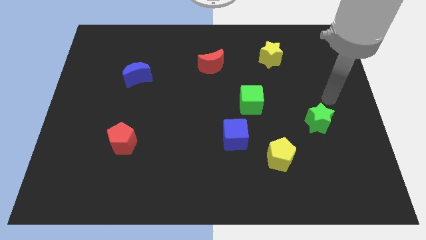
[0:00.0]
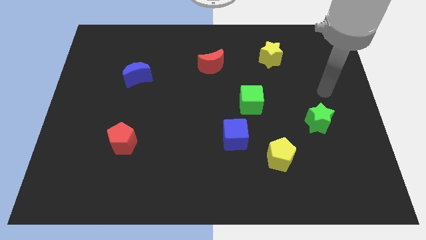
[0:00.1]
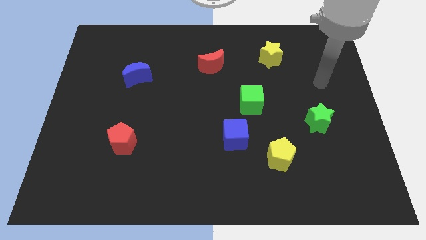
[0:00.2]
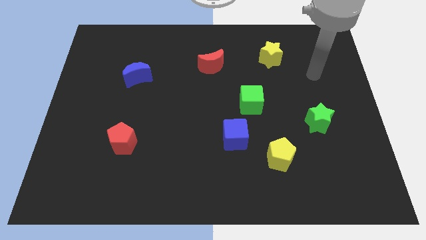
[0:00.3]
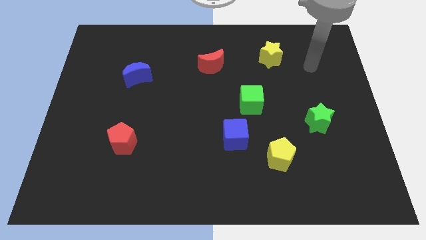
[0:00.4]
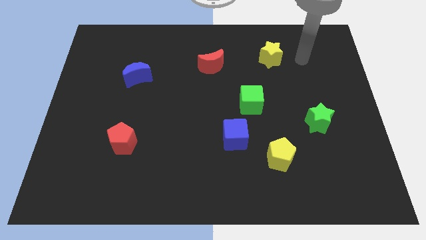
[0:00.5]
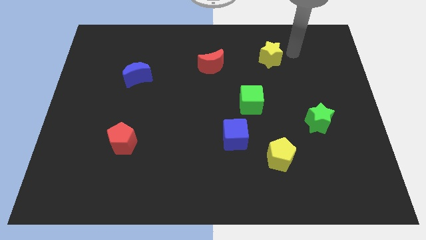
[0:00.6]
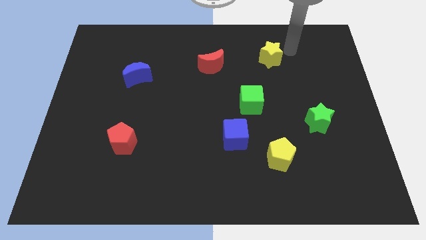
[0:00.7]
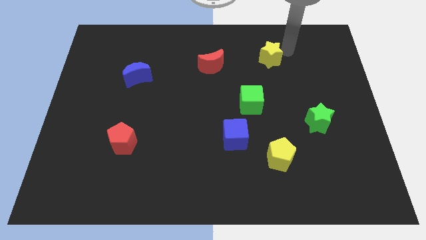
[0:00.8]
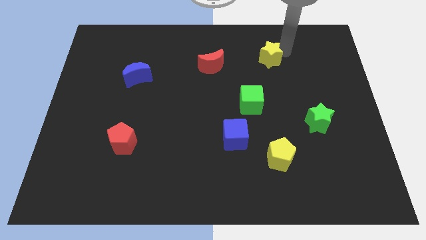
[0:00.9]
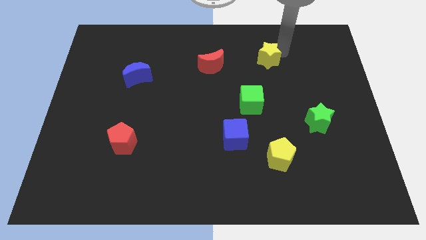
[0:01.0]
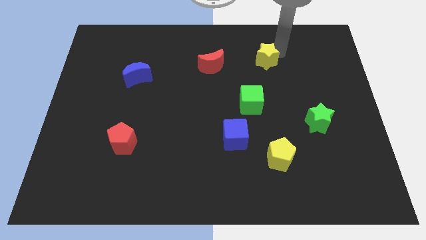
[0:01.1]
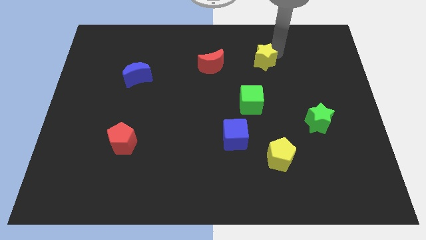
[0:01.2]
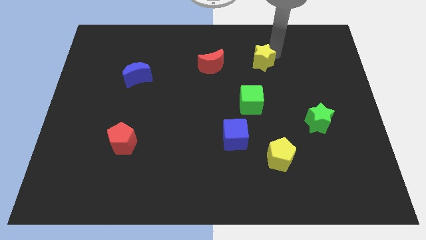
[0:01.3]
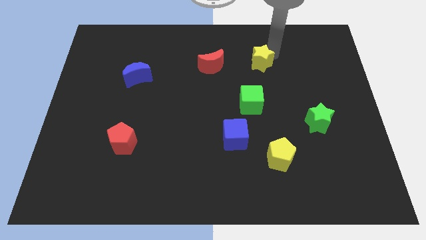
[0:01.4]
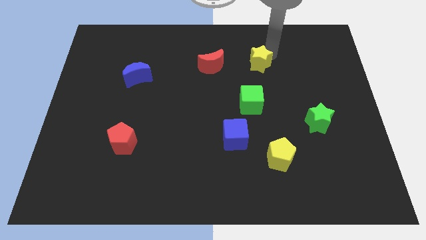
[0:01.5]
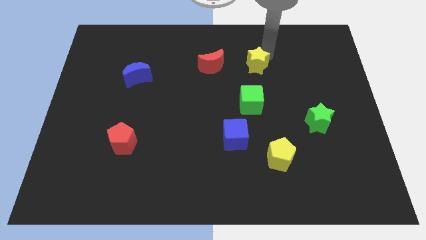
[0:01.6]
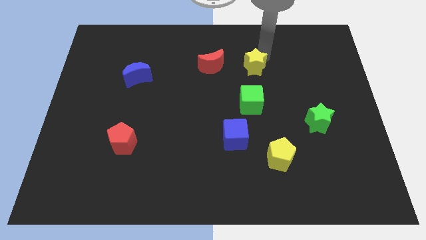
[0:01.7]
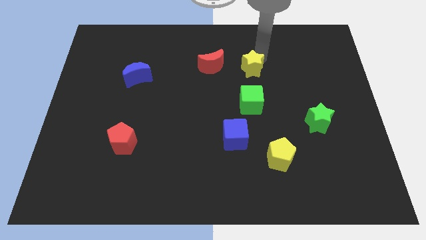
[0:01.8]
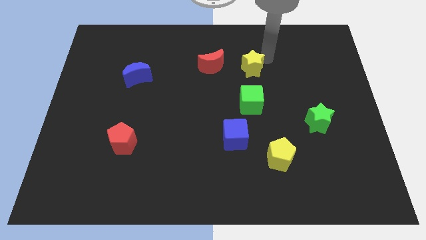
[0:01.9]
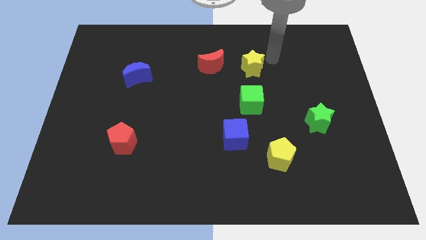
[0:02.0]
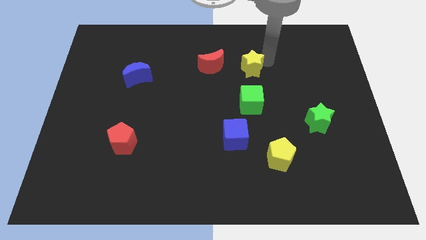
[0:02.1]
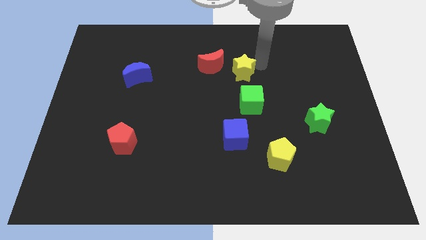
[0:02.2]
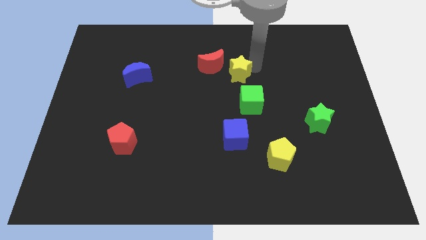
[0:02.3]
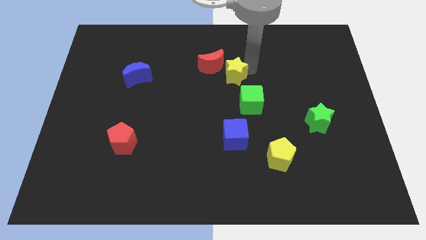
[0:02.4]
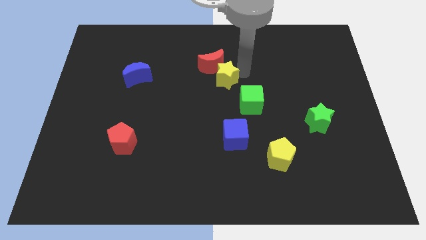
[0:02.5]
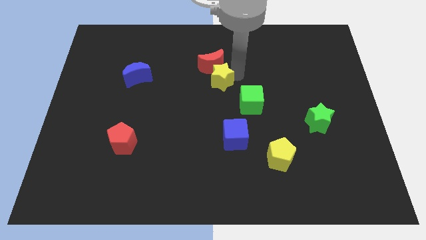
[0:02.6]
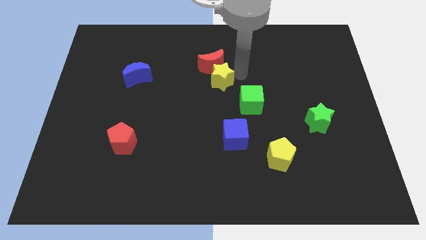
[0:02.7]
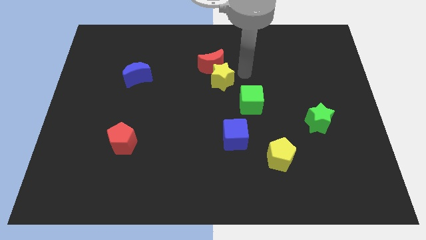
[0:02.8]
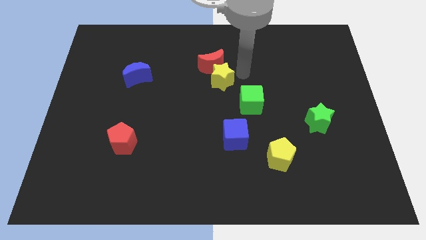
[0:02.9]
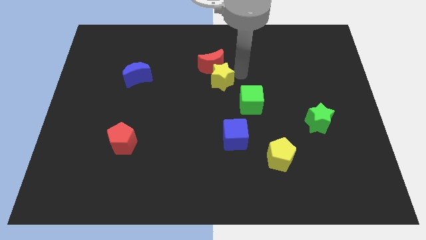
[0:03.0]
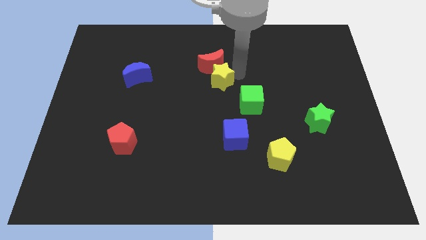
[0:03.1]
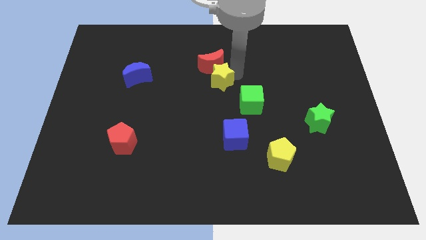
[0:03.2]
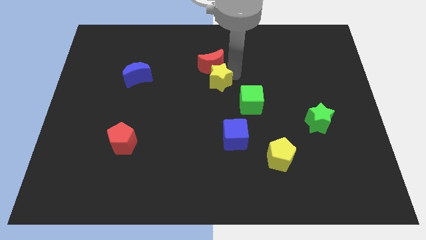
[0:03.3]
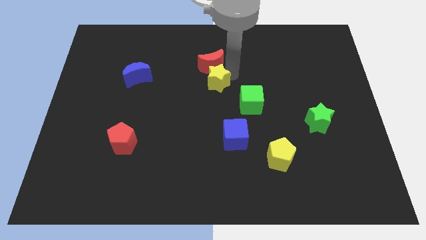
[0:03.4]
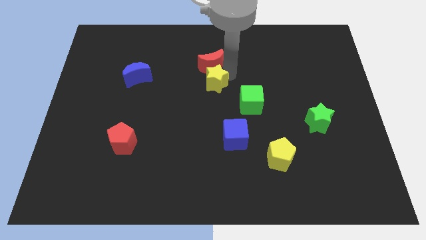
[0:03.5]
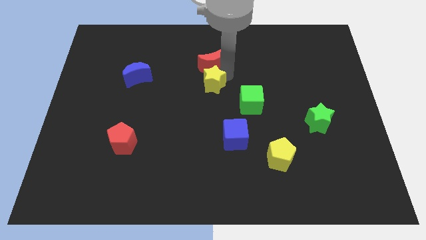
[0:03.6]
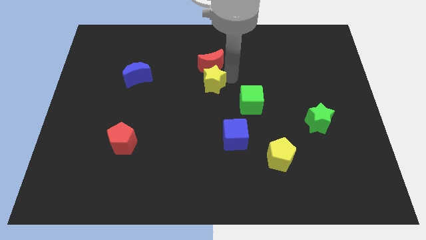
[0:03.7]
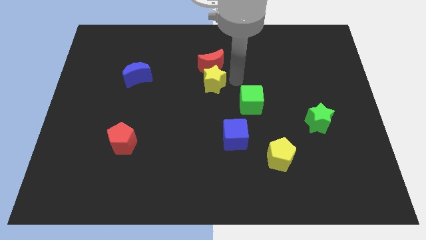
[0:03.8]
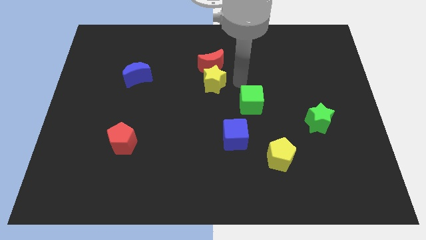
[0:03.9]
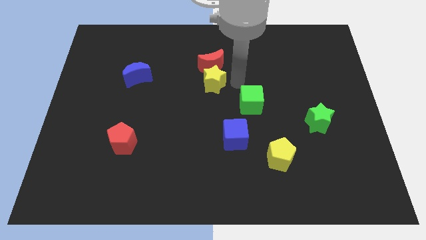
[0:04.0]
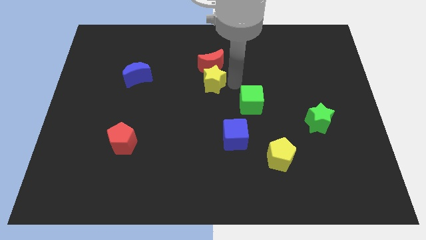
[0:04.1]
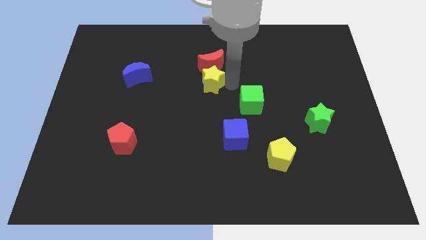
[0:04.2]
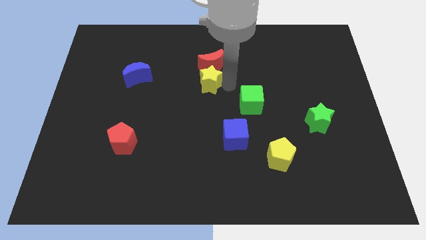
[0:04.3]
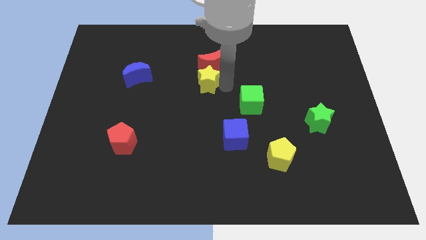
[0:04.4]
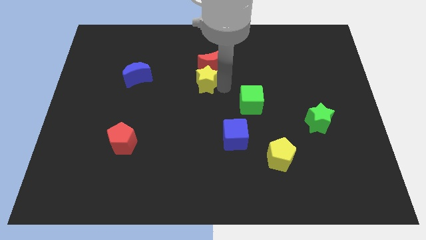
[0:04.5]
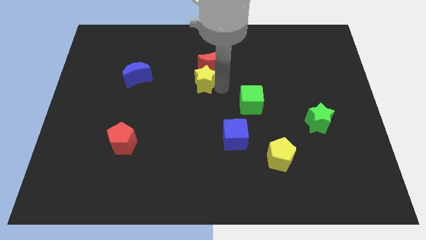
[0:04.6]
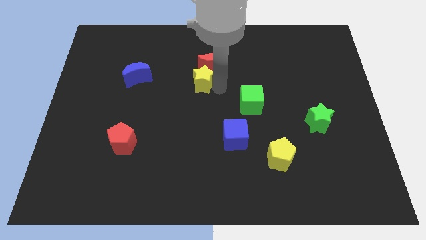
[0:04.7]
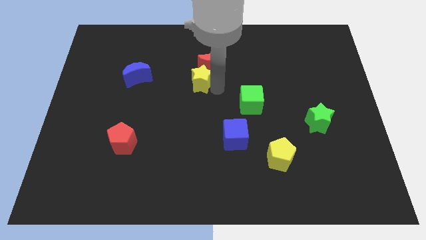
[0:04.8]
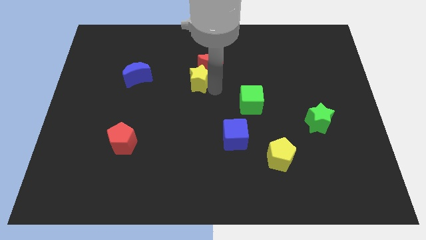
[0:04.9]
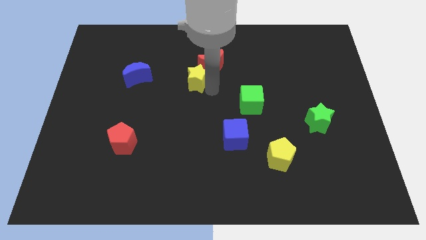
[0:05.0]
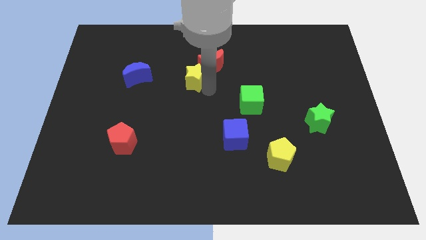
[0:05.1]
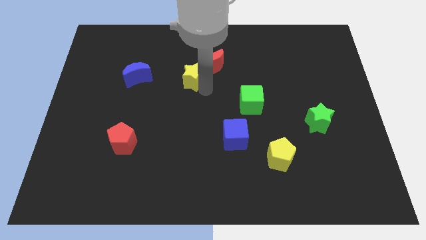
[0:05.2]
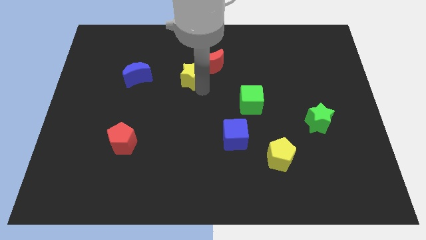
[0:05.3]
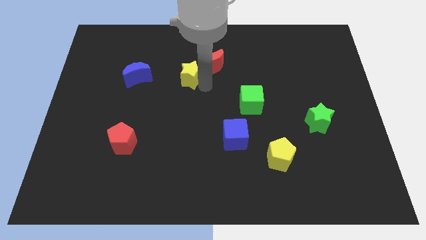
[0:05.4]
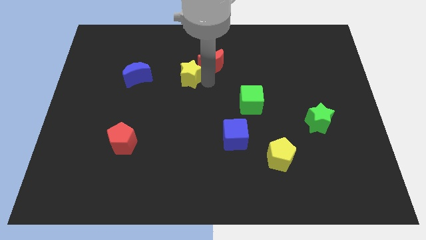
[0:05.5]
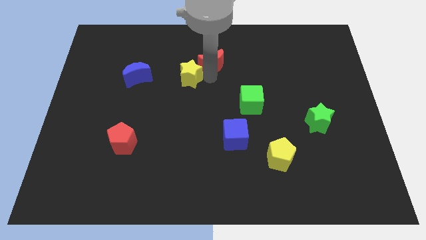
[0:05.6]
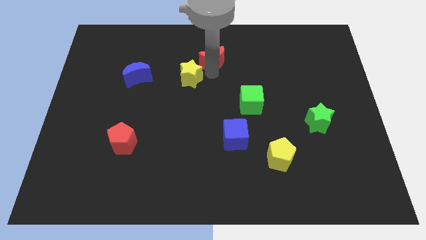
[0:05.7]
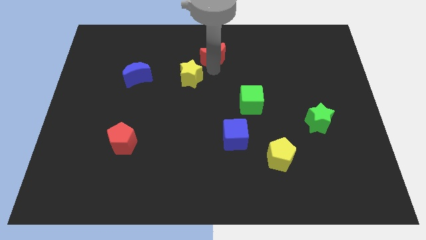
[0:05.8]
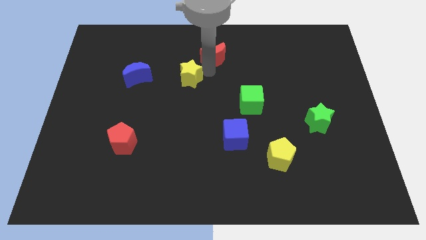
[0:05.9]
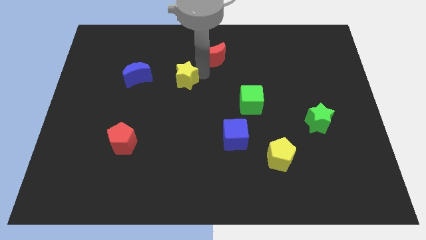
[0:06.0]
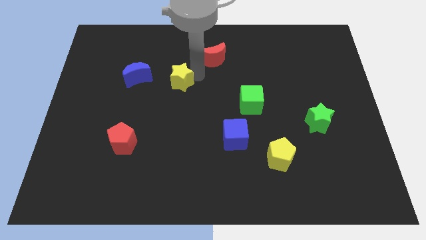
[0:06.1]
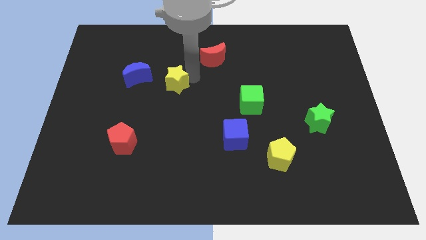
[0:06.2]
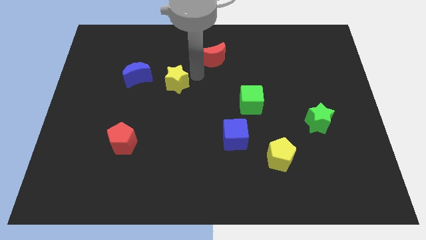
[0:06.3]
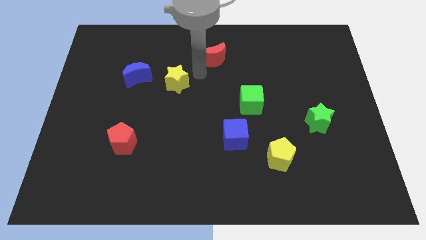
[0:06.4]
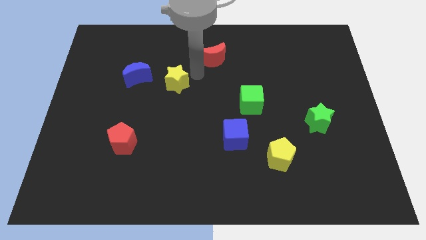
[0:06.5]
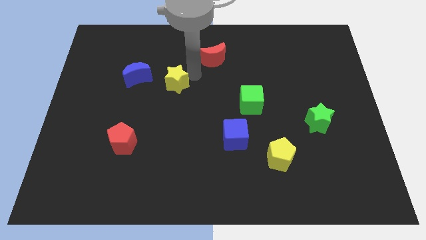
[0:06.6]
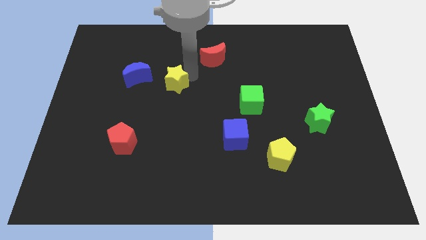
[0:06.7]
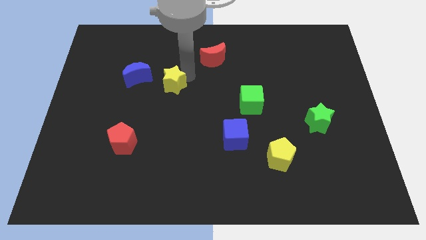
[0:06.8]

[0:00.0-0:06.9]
push the yellow star diagonally down and to the right of the blue moon
